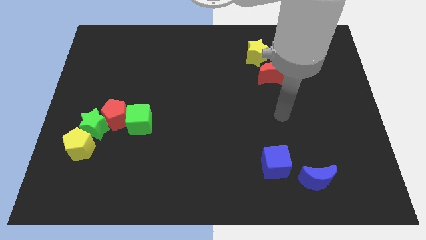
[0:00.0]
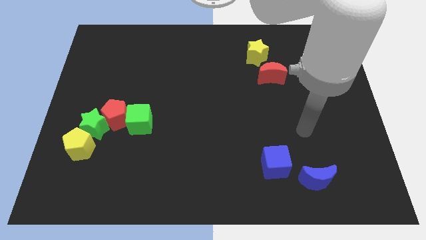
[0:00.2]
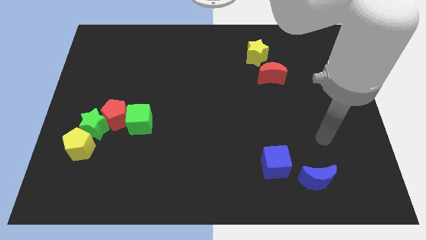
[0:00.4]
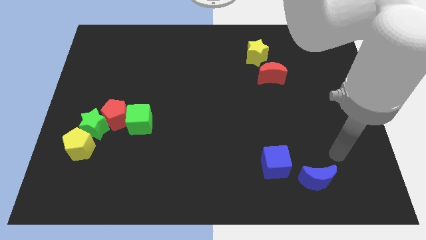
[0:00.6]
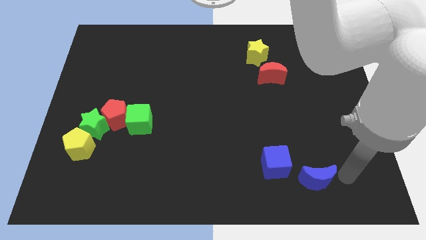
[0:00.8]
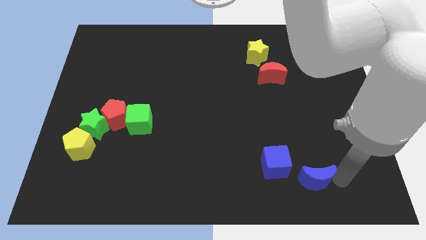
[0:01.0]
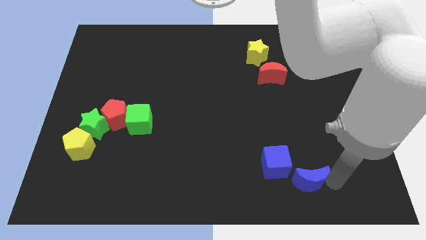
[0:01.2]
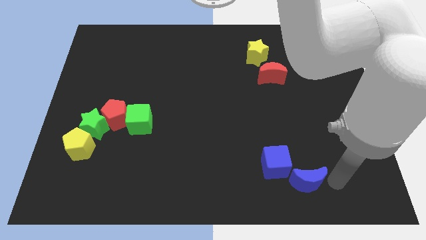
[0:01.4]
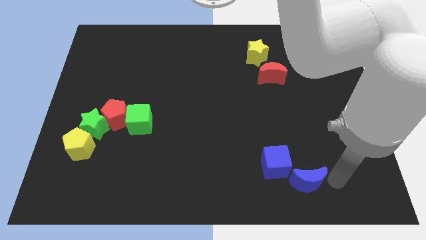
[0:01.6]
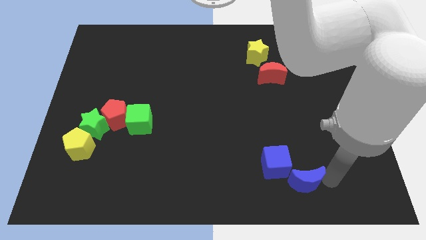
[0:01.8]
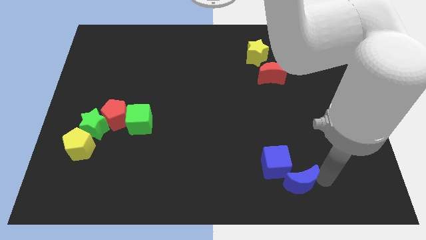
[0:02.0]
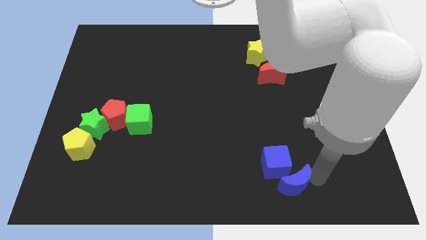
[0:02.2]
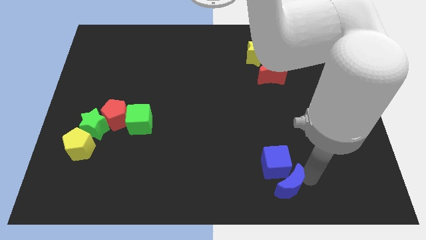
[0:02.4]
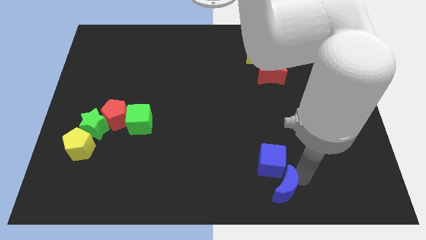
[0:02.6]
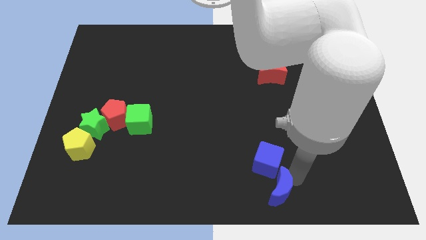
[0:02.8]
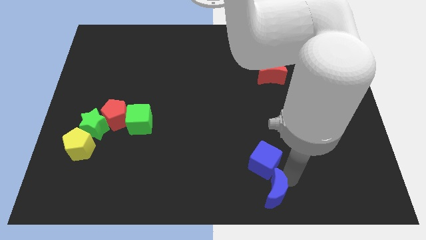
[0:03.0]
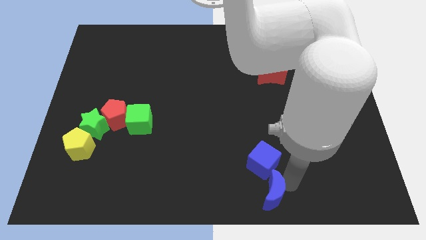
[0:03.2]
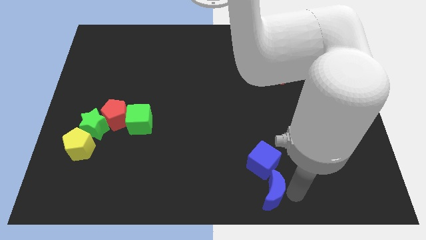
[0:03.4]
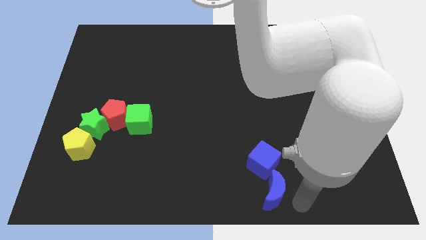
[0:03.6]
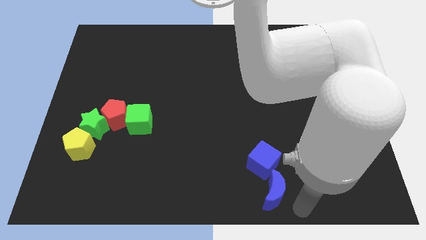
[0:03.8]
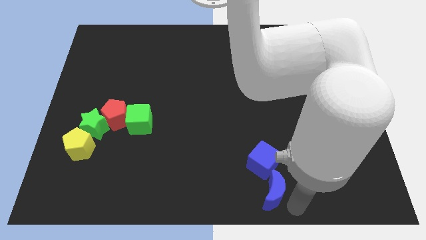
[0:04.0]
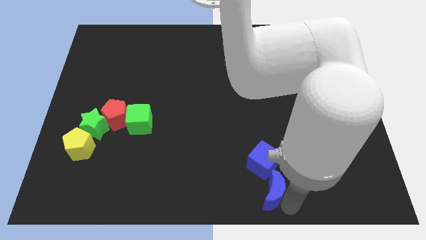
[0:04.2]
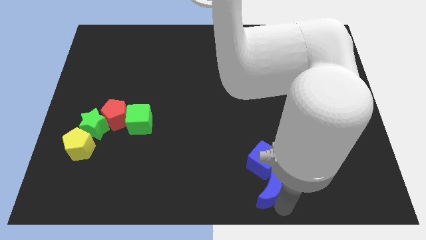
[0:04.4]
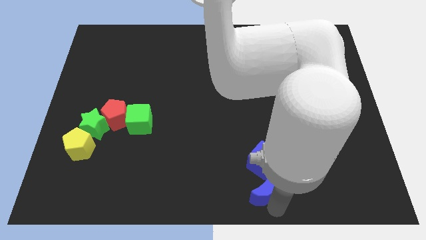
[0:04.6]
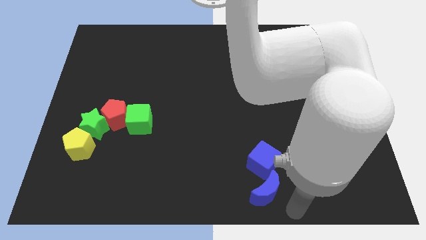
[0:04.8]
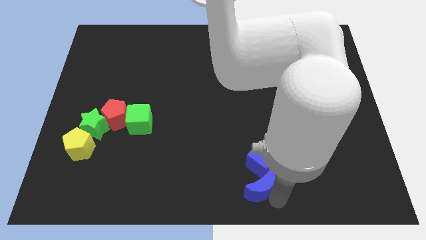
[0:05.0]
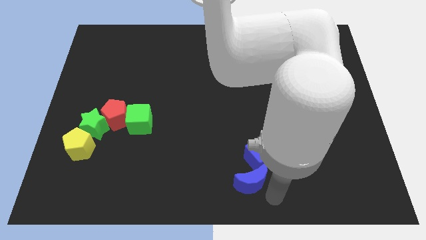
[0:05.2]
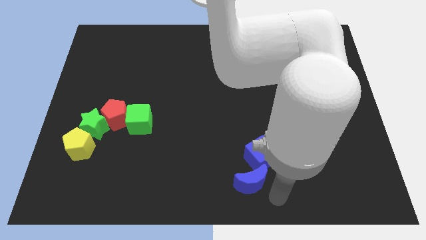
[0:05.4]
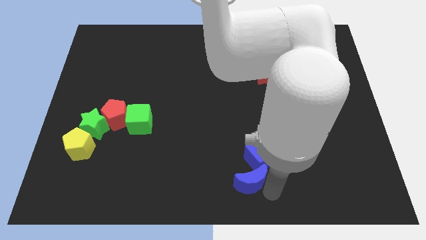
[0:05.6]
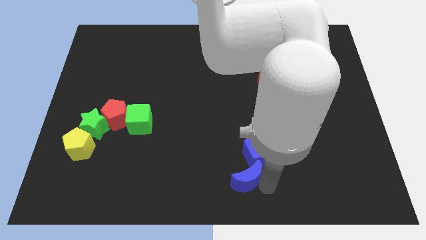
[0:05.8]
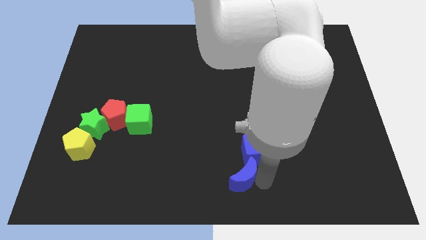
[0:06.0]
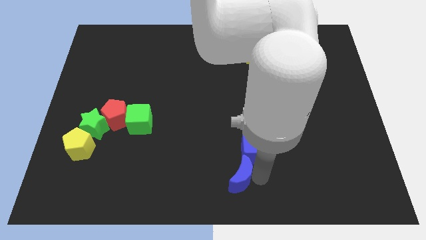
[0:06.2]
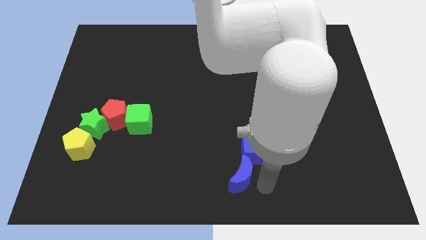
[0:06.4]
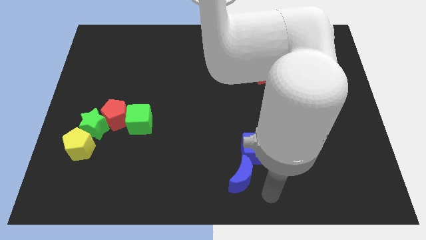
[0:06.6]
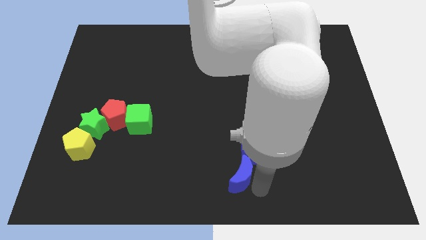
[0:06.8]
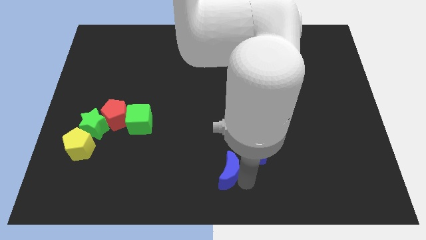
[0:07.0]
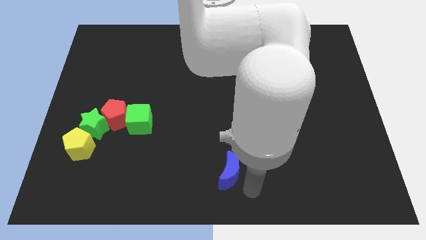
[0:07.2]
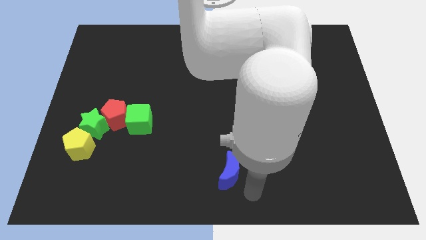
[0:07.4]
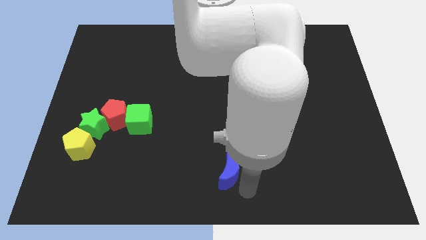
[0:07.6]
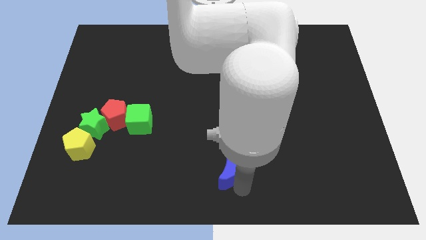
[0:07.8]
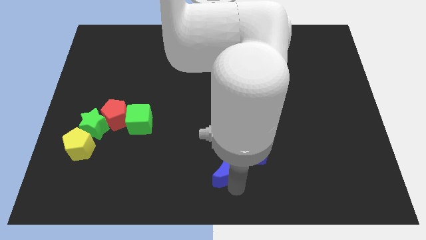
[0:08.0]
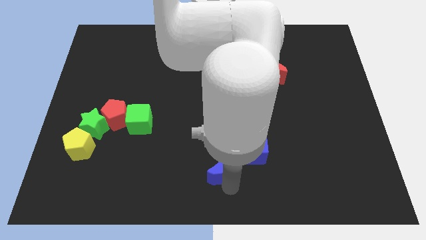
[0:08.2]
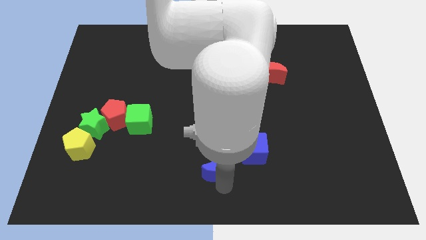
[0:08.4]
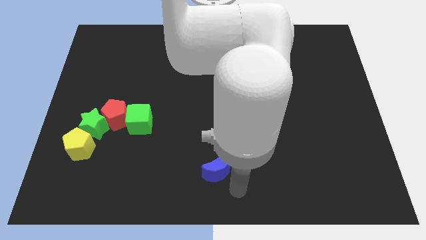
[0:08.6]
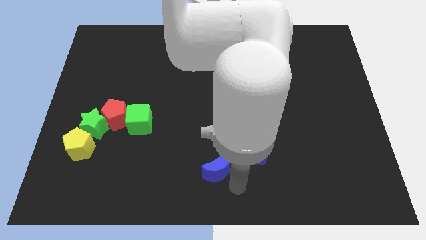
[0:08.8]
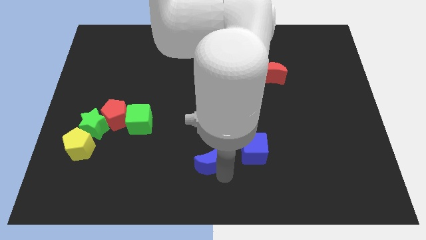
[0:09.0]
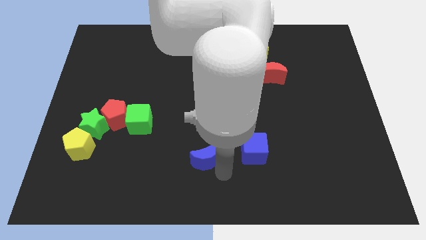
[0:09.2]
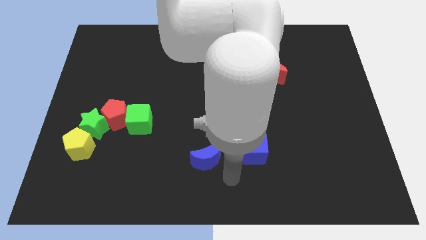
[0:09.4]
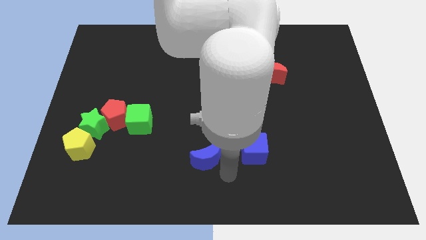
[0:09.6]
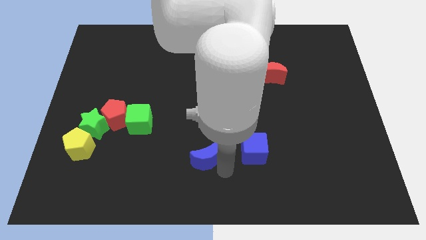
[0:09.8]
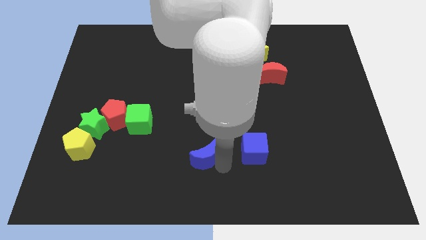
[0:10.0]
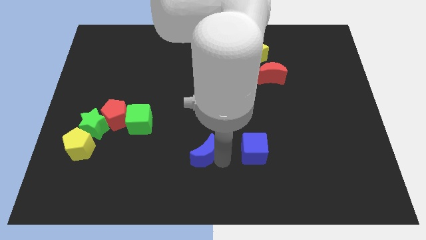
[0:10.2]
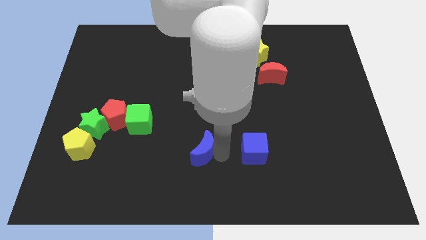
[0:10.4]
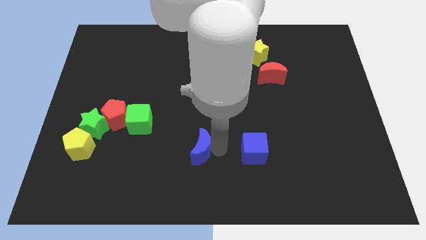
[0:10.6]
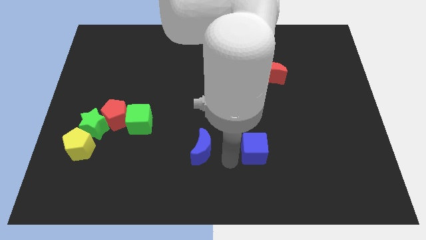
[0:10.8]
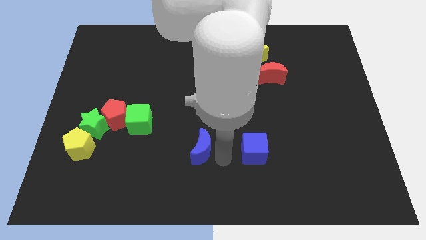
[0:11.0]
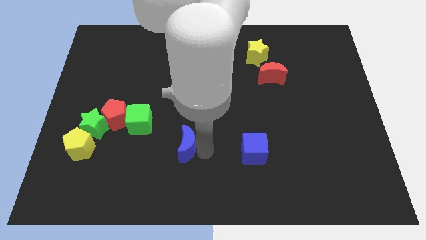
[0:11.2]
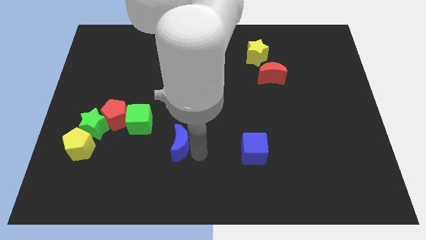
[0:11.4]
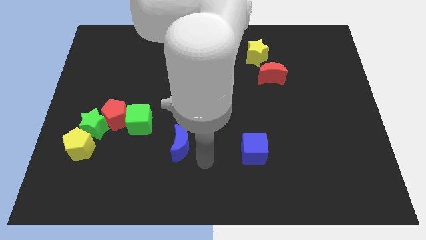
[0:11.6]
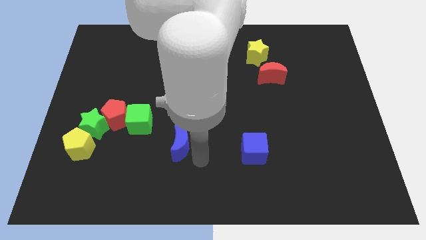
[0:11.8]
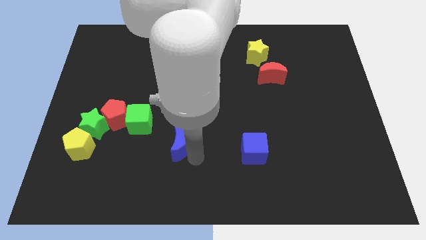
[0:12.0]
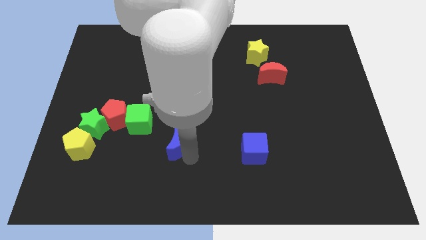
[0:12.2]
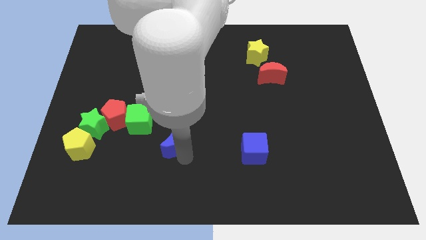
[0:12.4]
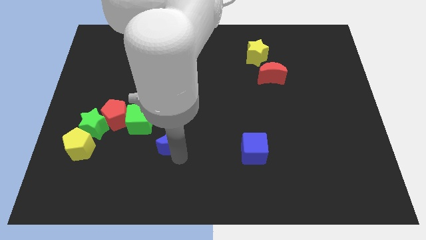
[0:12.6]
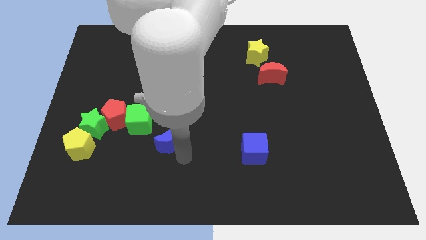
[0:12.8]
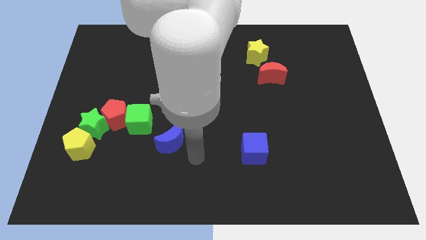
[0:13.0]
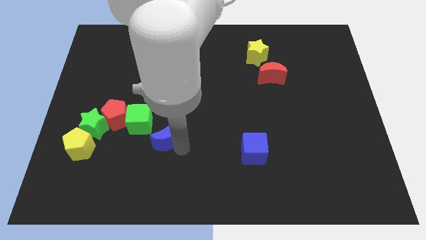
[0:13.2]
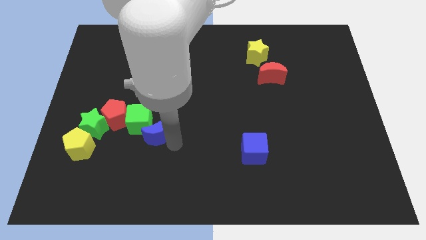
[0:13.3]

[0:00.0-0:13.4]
move the blue moon close to the green cube

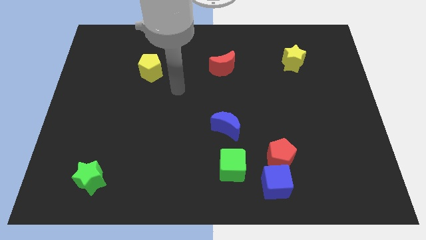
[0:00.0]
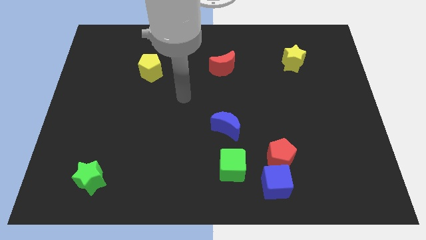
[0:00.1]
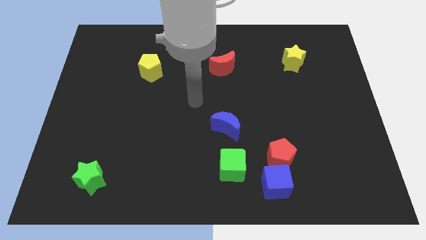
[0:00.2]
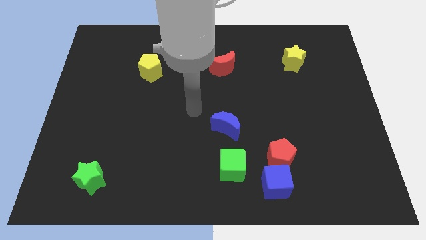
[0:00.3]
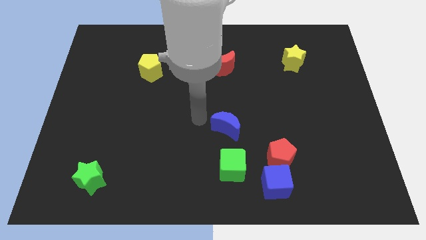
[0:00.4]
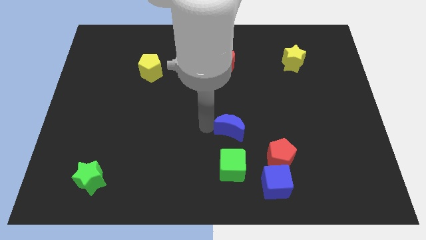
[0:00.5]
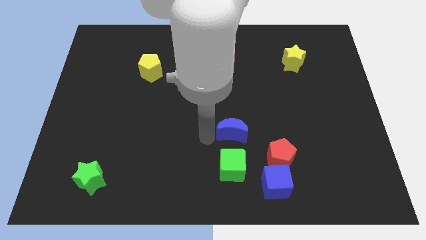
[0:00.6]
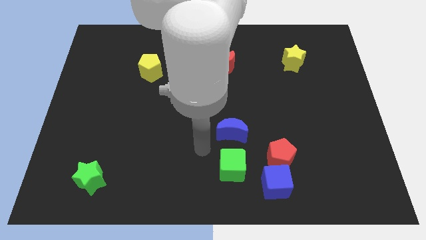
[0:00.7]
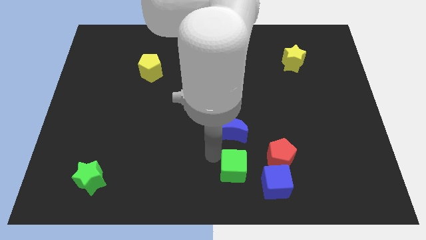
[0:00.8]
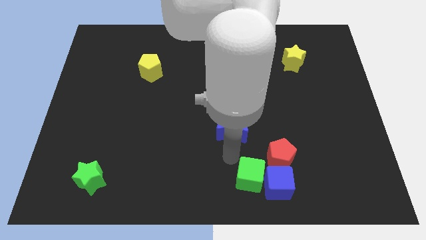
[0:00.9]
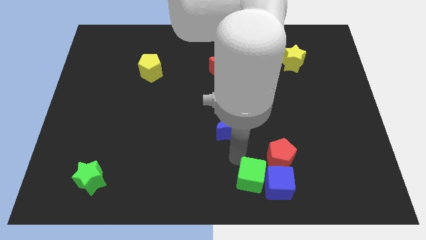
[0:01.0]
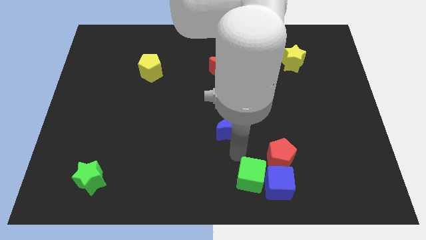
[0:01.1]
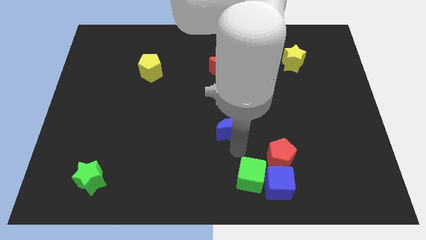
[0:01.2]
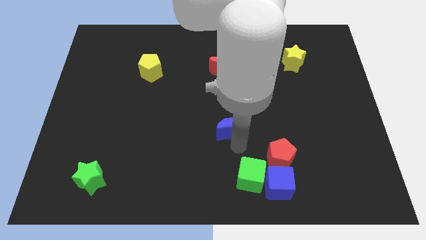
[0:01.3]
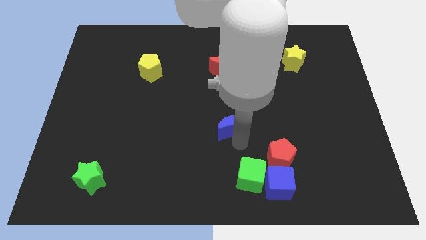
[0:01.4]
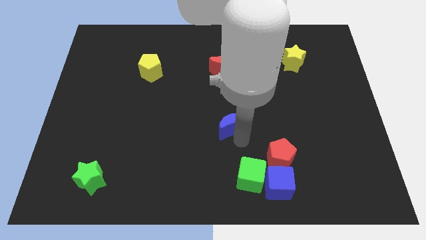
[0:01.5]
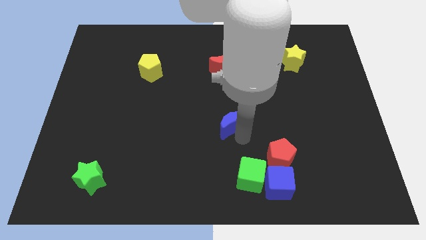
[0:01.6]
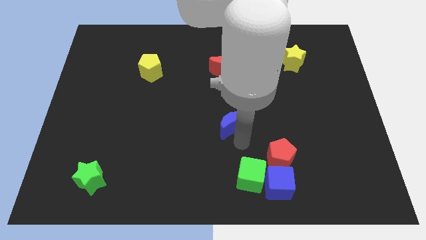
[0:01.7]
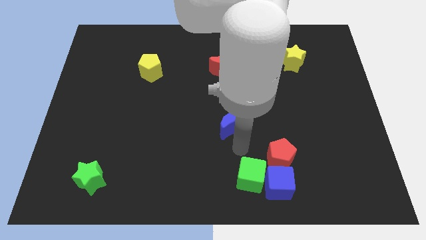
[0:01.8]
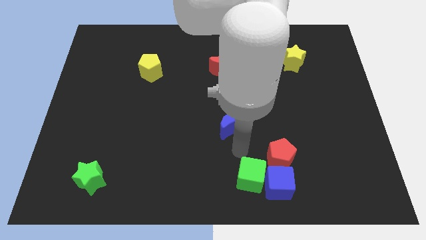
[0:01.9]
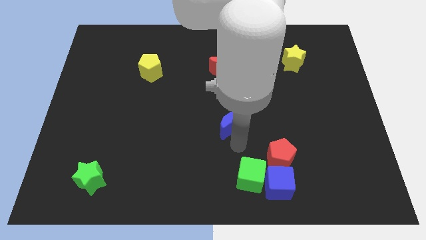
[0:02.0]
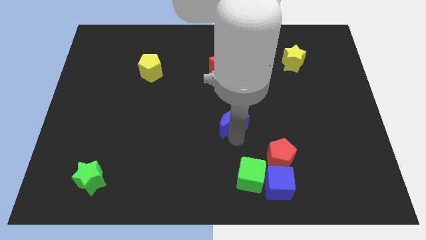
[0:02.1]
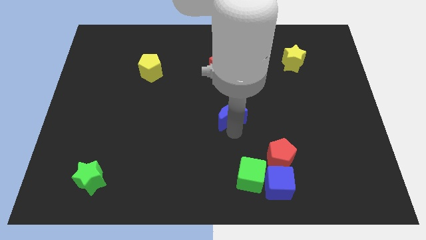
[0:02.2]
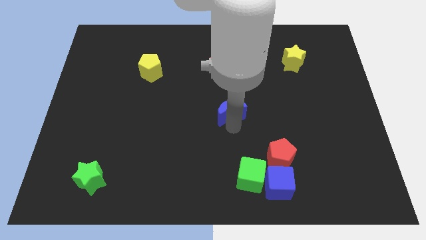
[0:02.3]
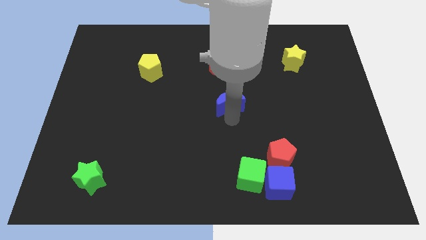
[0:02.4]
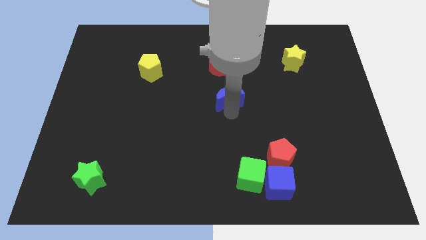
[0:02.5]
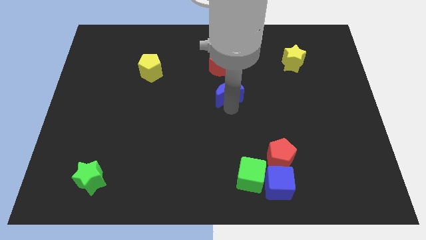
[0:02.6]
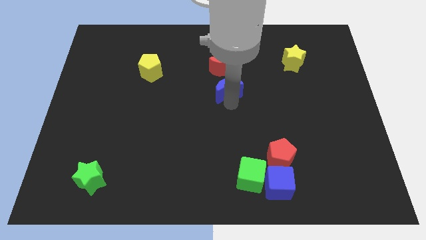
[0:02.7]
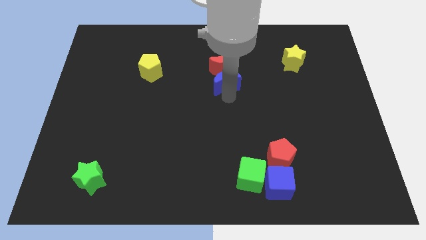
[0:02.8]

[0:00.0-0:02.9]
slide the blue moon next to the red moon
